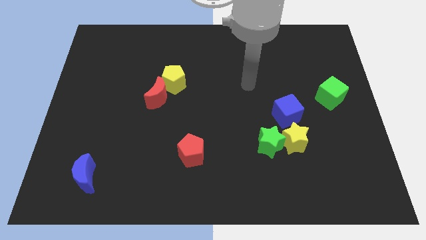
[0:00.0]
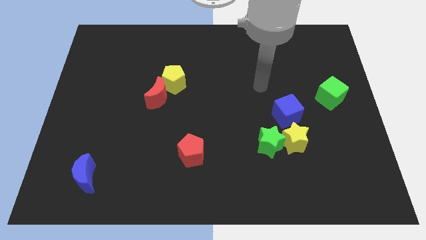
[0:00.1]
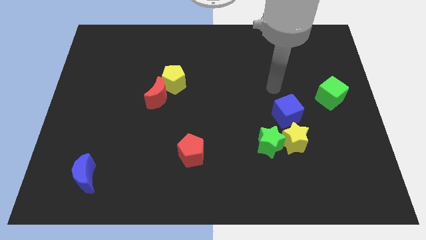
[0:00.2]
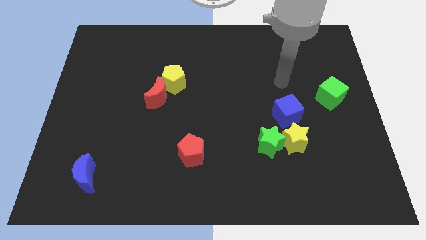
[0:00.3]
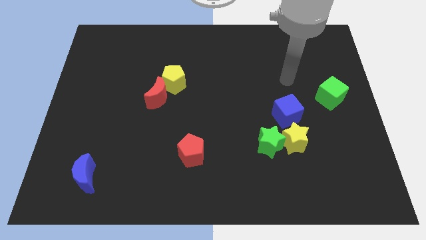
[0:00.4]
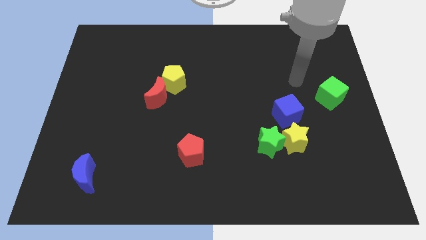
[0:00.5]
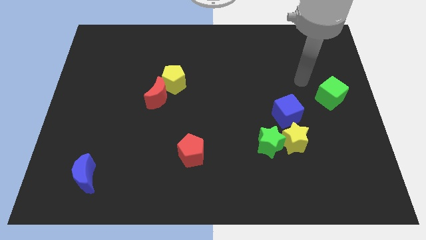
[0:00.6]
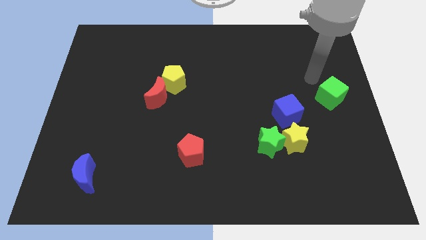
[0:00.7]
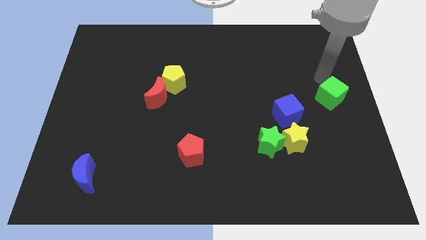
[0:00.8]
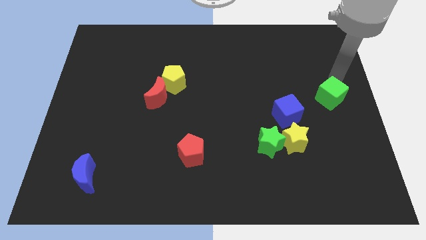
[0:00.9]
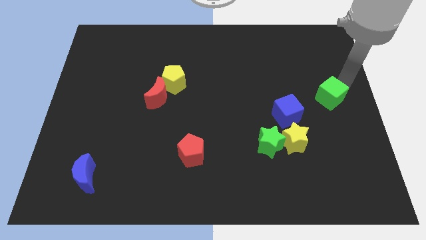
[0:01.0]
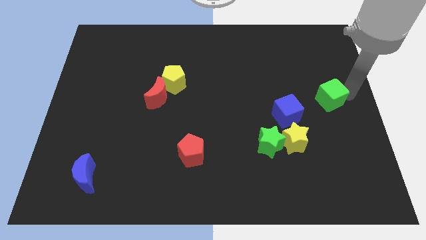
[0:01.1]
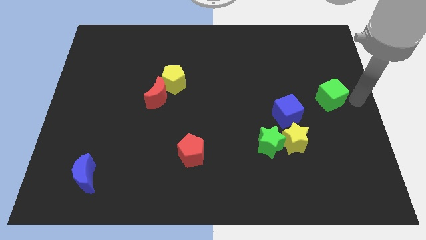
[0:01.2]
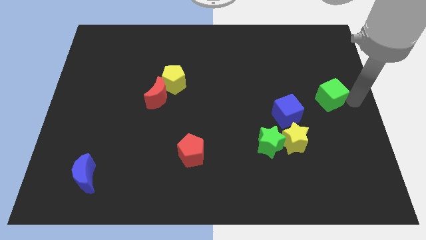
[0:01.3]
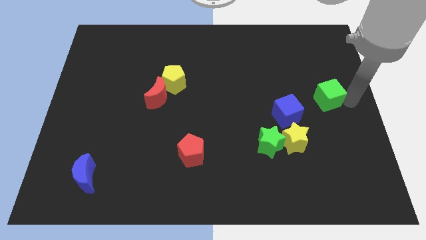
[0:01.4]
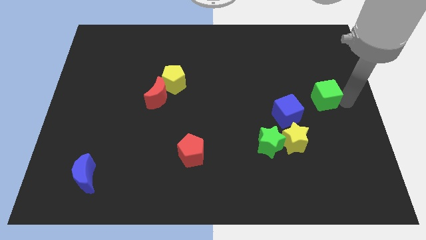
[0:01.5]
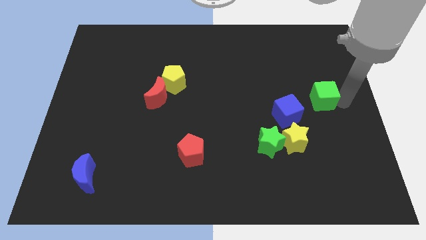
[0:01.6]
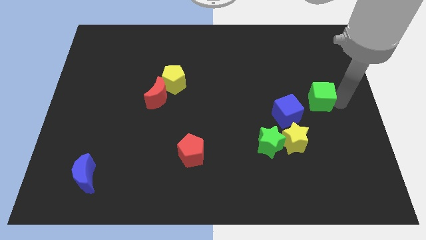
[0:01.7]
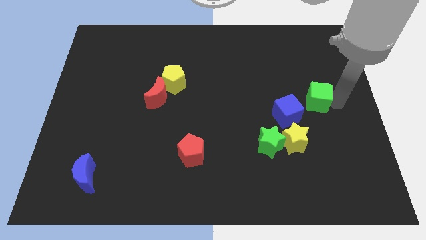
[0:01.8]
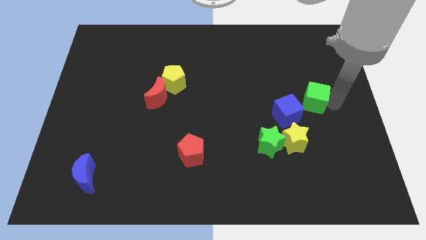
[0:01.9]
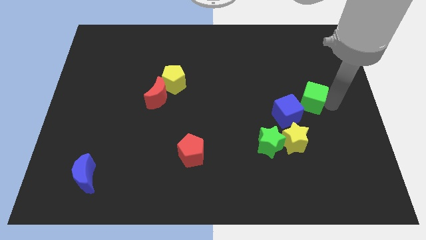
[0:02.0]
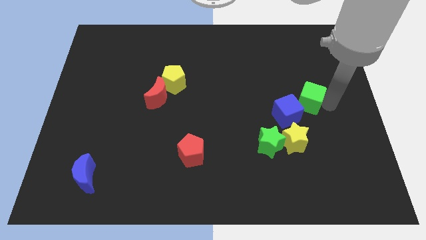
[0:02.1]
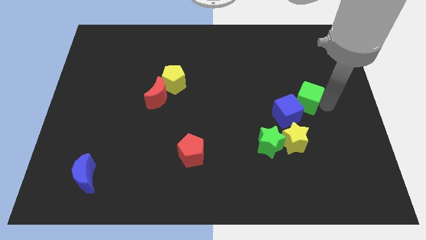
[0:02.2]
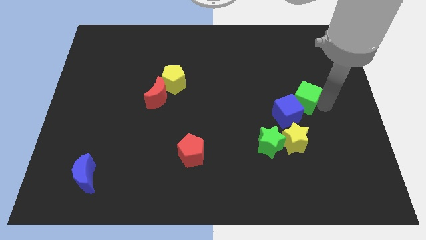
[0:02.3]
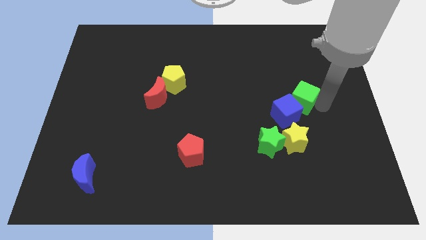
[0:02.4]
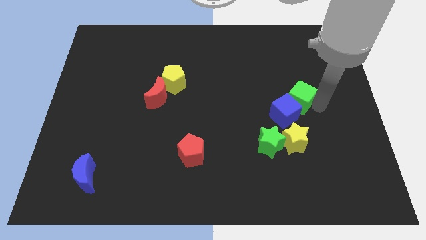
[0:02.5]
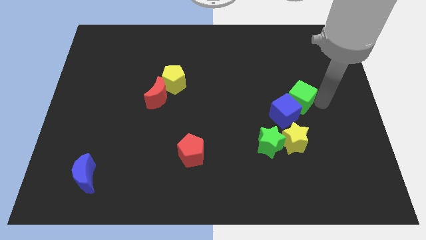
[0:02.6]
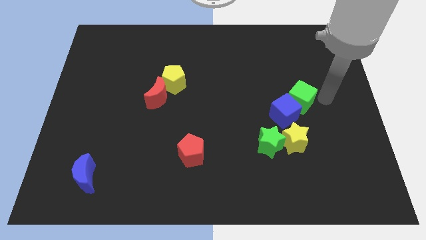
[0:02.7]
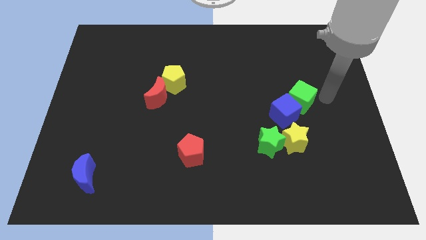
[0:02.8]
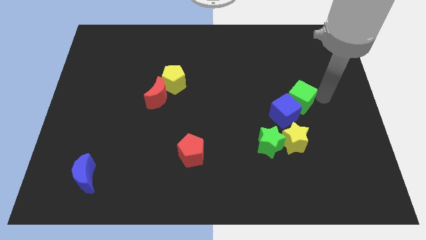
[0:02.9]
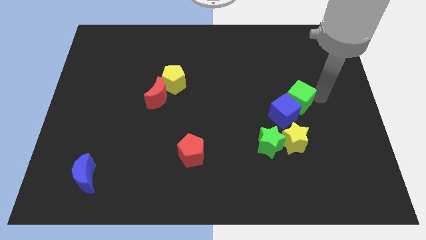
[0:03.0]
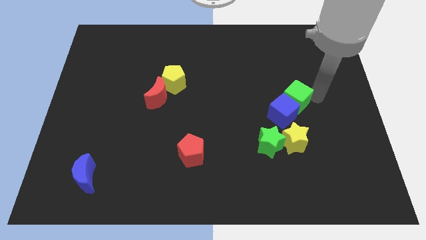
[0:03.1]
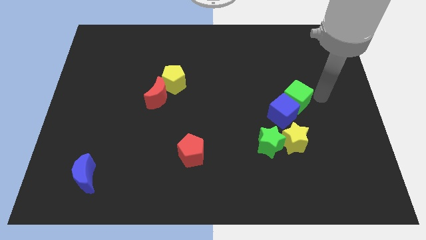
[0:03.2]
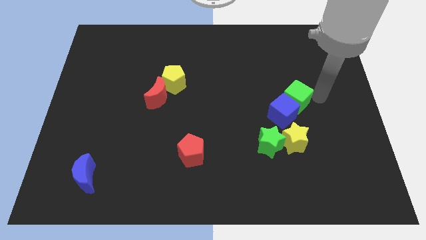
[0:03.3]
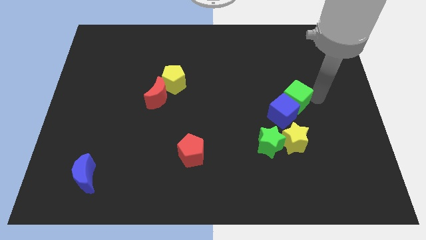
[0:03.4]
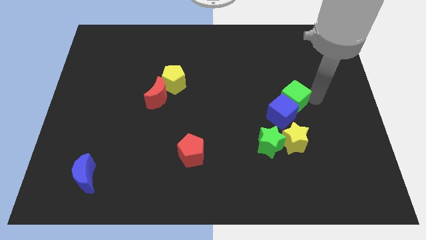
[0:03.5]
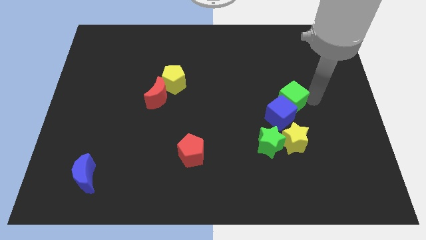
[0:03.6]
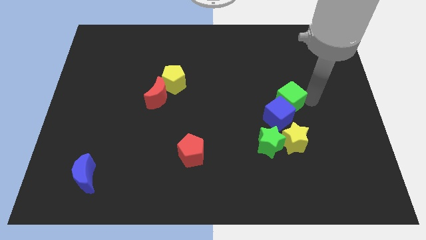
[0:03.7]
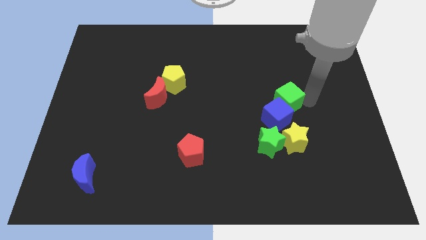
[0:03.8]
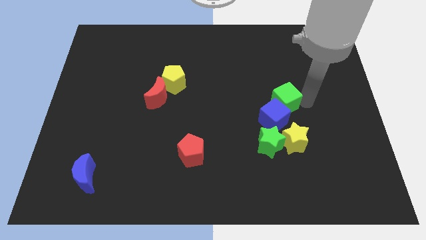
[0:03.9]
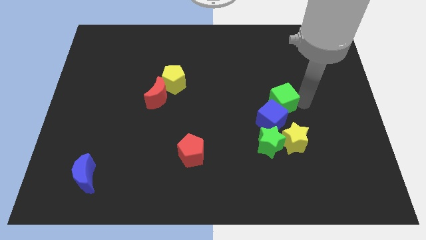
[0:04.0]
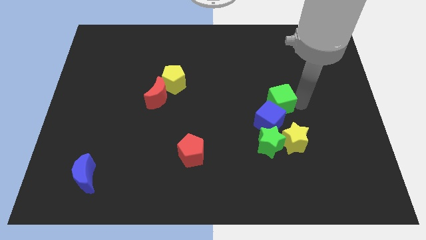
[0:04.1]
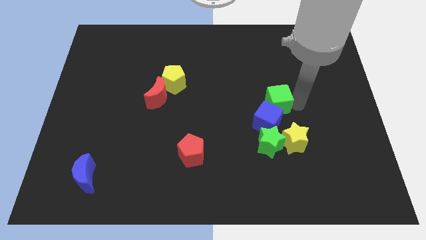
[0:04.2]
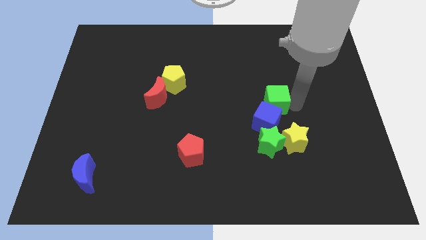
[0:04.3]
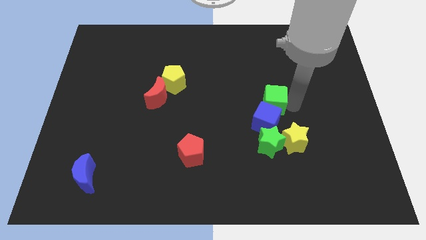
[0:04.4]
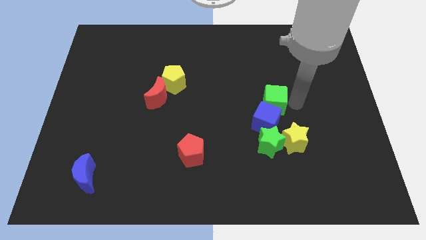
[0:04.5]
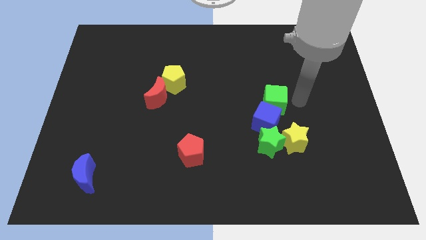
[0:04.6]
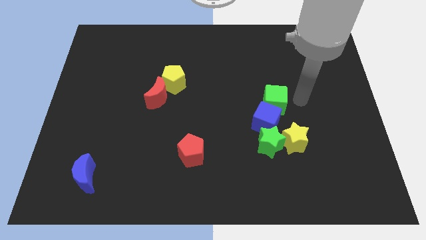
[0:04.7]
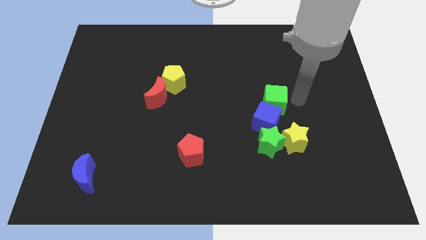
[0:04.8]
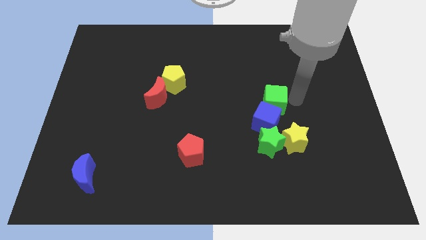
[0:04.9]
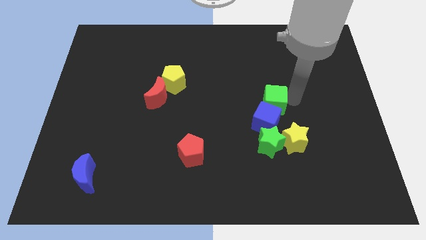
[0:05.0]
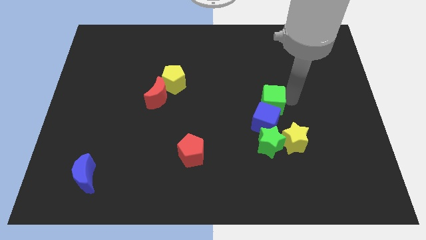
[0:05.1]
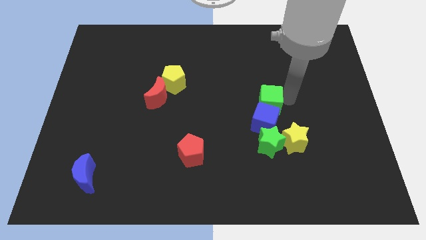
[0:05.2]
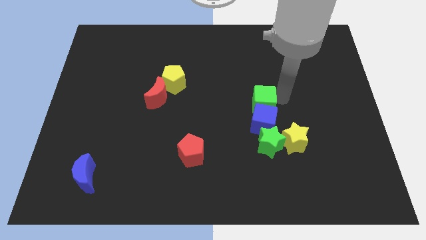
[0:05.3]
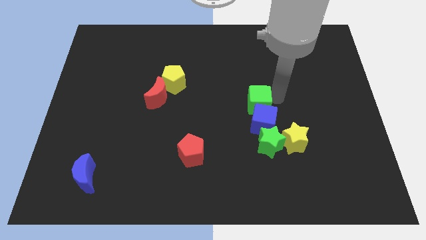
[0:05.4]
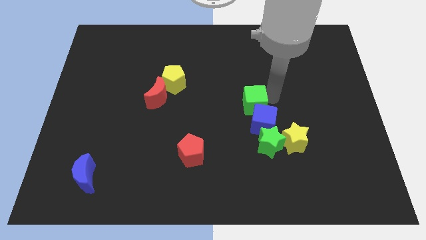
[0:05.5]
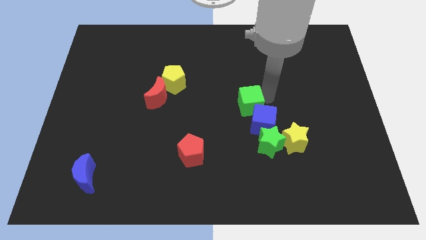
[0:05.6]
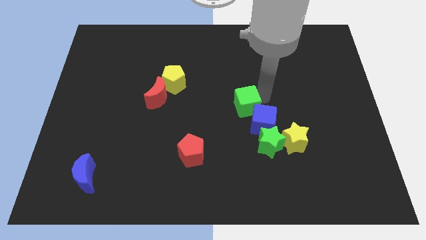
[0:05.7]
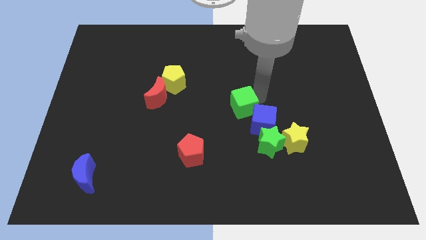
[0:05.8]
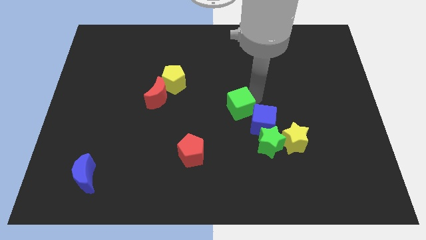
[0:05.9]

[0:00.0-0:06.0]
move the green cube to the left of the blue cube

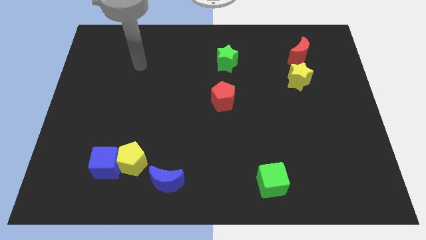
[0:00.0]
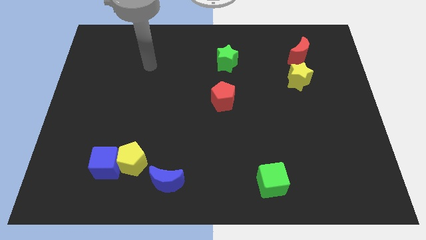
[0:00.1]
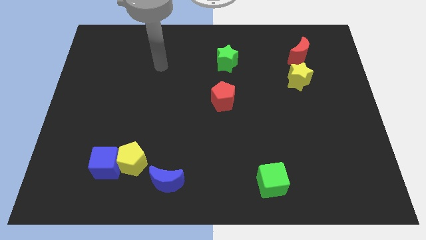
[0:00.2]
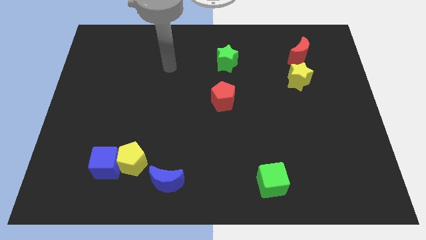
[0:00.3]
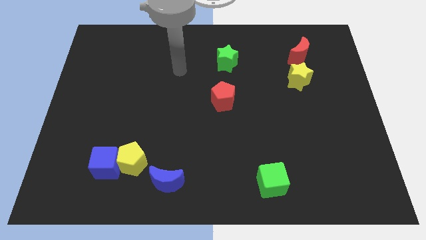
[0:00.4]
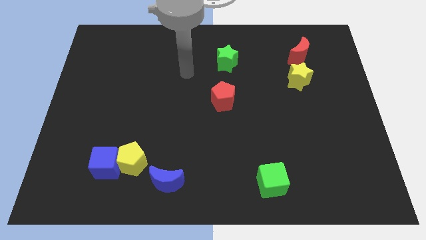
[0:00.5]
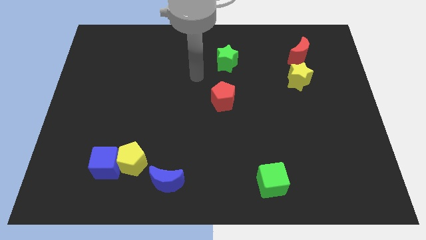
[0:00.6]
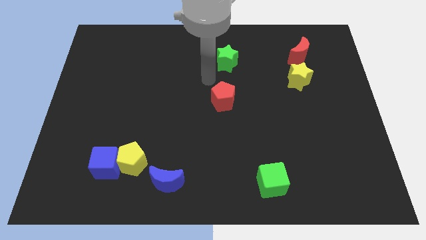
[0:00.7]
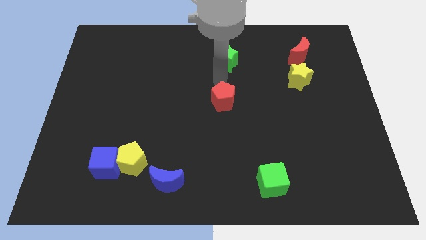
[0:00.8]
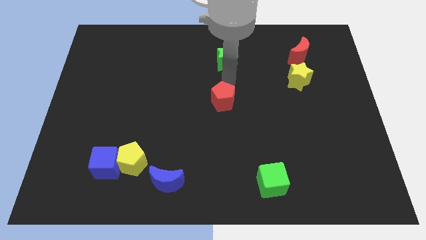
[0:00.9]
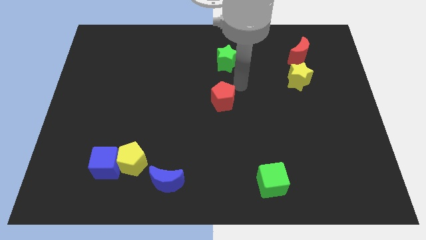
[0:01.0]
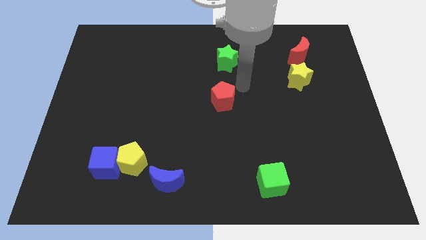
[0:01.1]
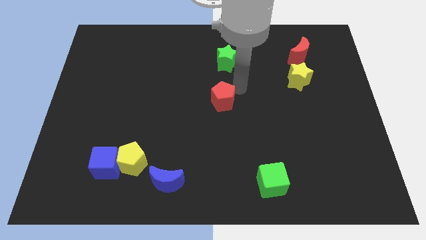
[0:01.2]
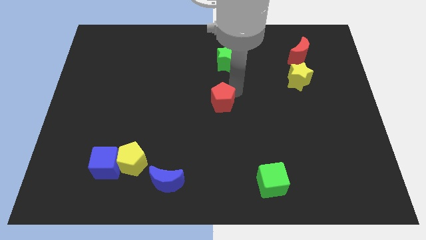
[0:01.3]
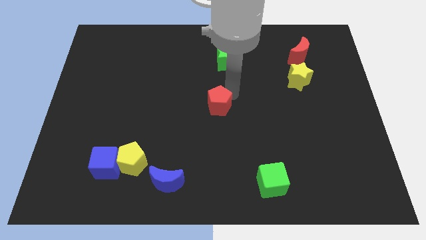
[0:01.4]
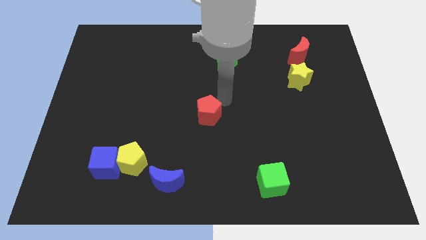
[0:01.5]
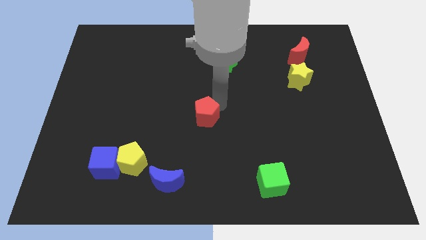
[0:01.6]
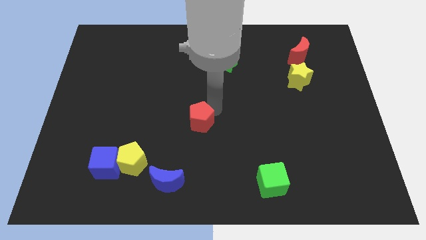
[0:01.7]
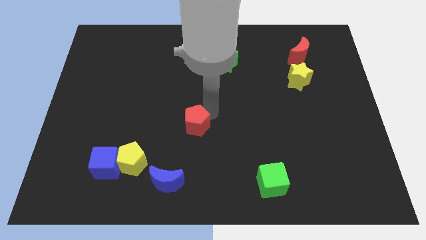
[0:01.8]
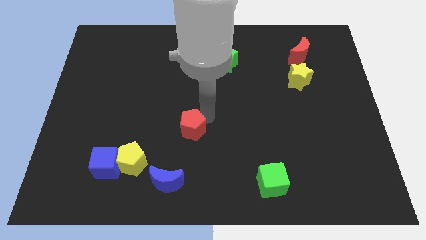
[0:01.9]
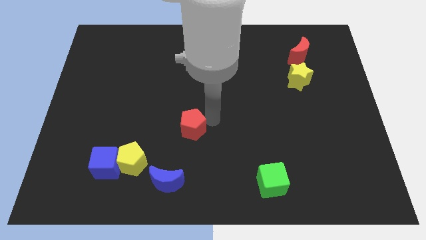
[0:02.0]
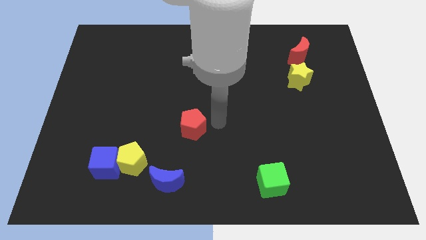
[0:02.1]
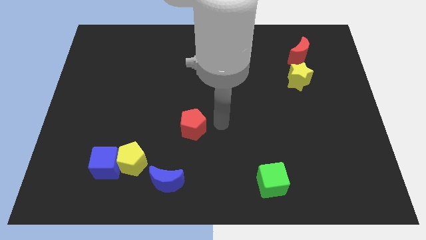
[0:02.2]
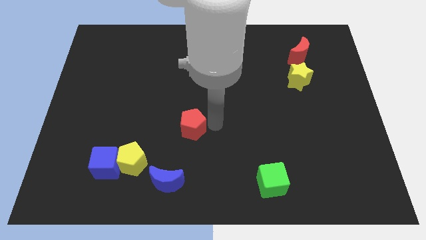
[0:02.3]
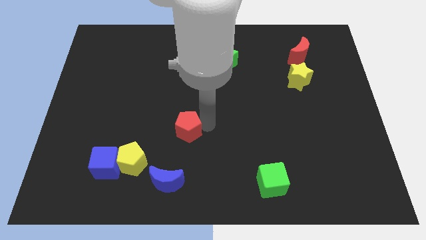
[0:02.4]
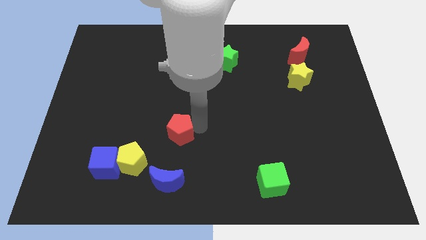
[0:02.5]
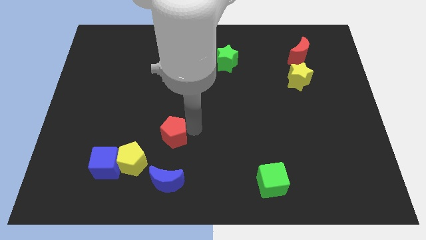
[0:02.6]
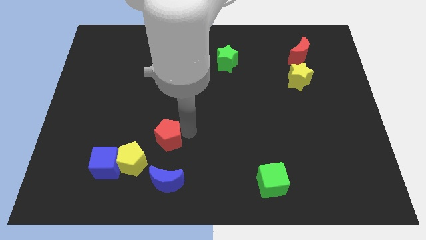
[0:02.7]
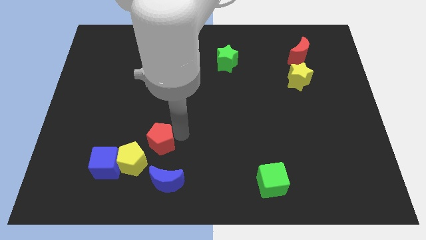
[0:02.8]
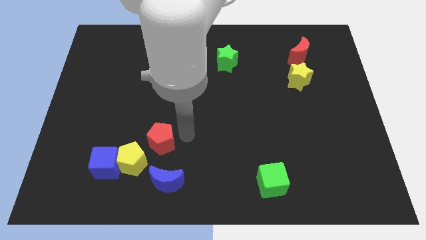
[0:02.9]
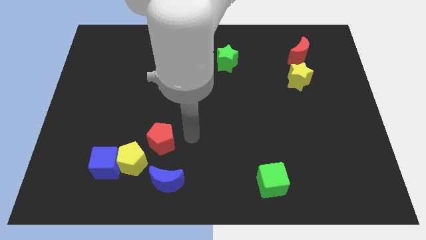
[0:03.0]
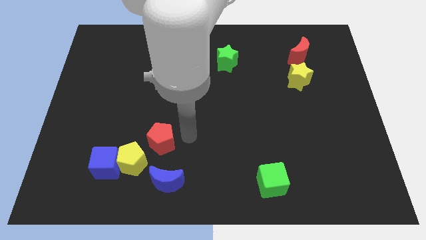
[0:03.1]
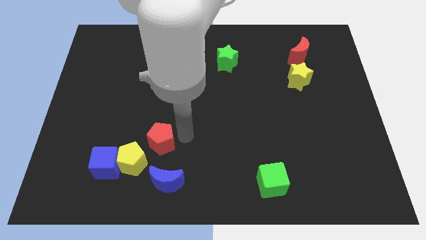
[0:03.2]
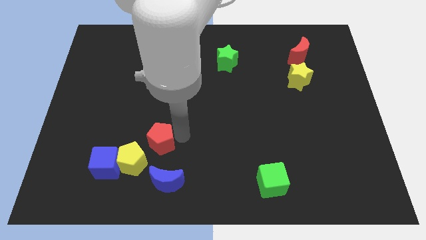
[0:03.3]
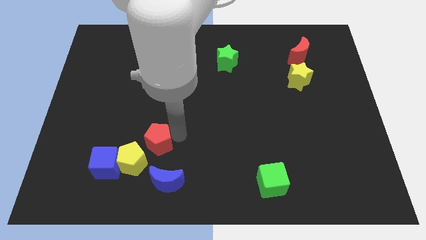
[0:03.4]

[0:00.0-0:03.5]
move the red pentagon to the top right side of the blue cube
